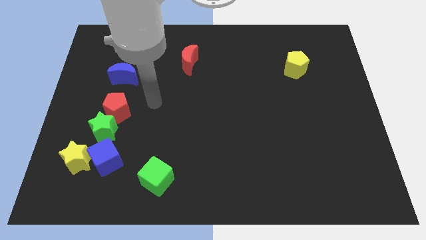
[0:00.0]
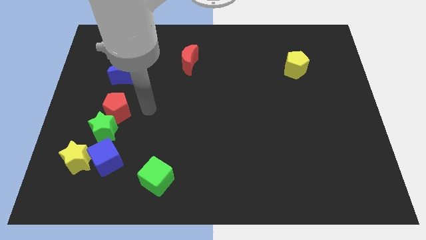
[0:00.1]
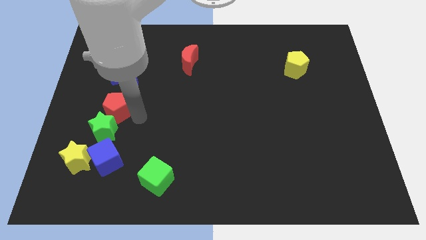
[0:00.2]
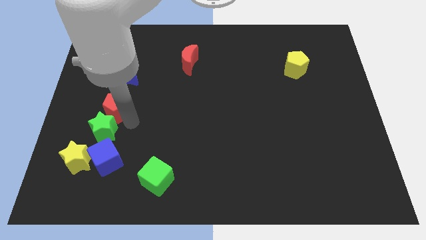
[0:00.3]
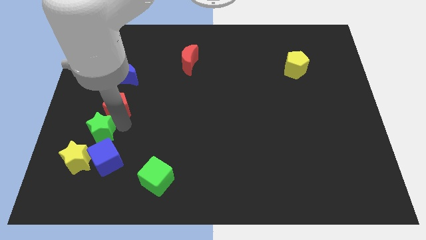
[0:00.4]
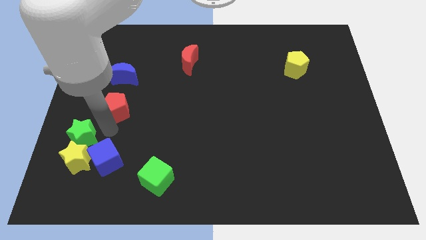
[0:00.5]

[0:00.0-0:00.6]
separate the red pentagon from the green star

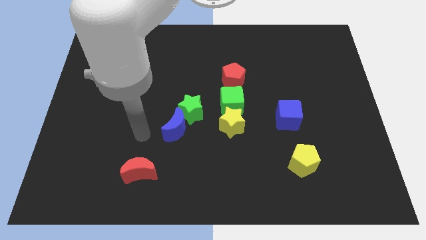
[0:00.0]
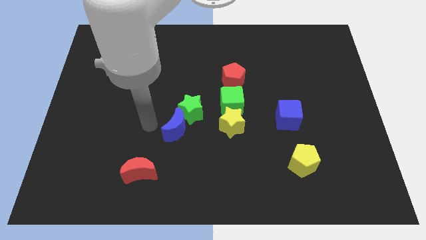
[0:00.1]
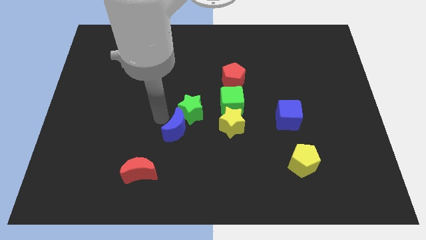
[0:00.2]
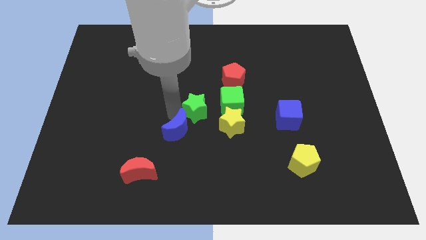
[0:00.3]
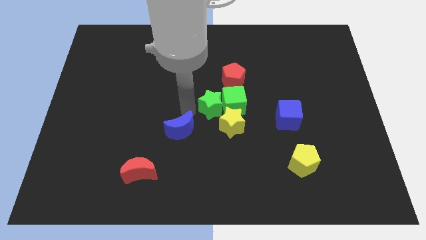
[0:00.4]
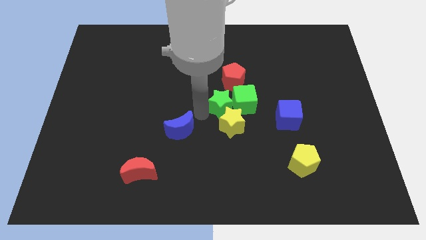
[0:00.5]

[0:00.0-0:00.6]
separate the blue moon from the green star

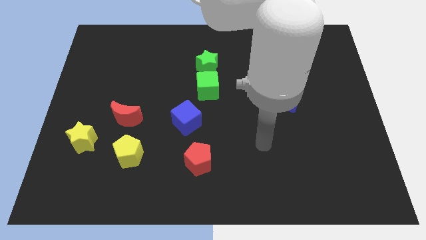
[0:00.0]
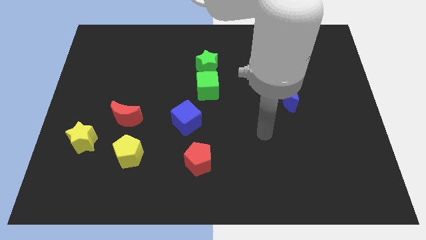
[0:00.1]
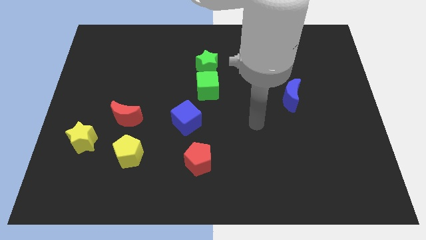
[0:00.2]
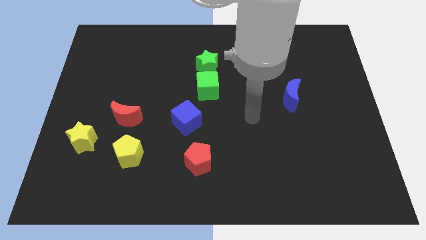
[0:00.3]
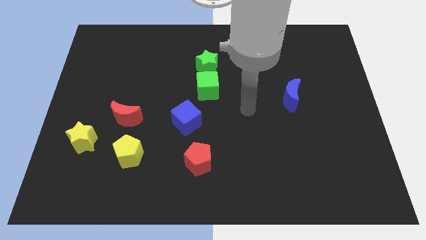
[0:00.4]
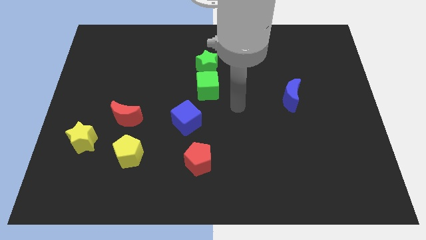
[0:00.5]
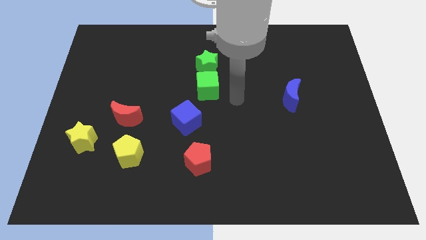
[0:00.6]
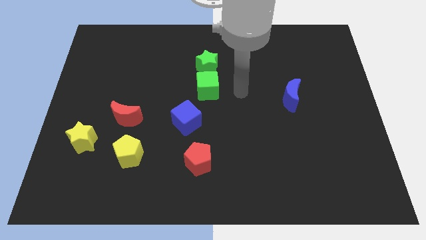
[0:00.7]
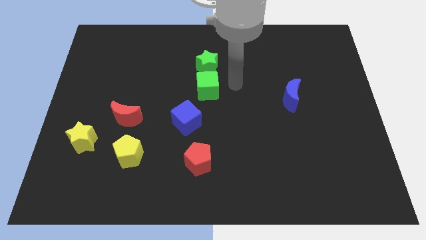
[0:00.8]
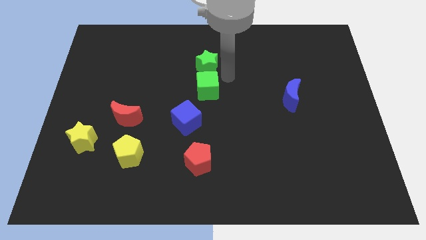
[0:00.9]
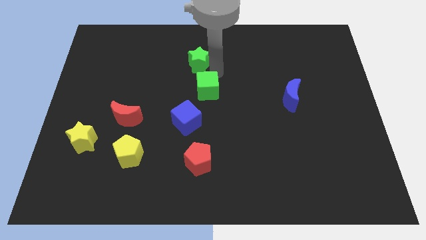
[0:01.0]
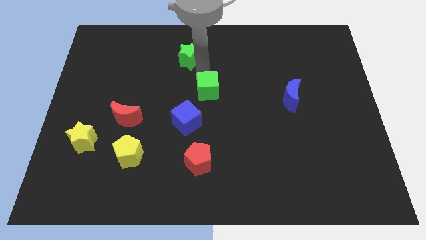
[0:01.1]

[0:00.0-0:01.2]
pull the green cube apart from the green star

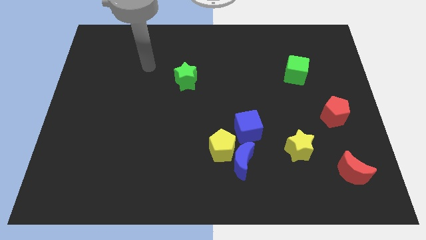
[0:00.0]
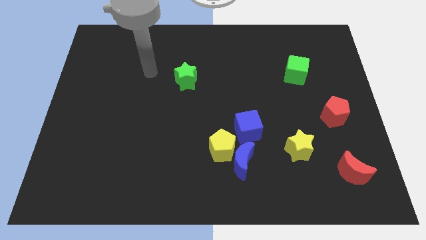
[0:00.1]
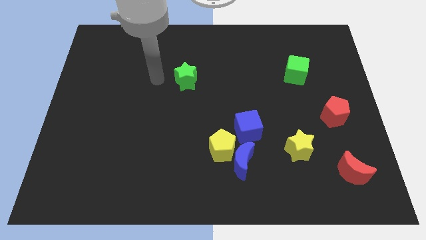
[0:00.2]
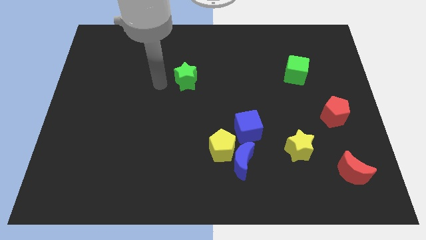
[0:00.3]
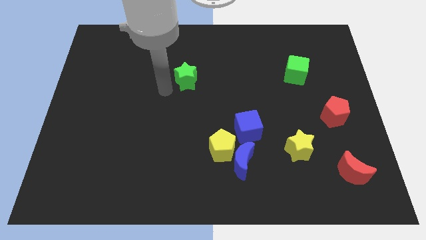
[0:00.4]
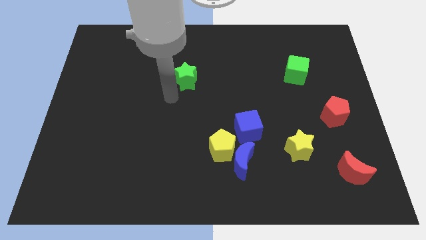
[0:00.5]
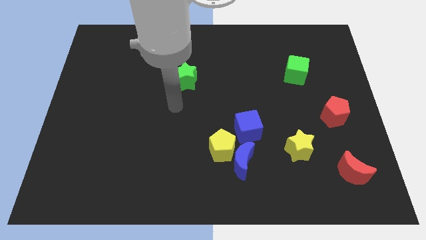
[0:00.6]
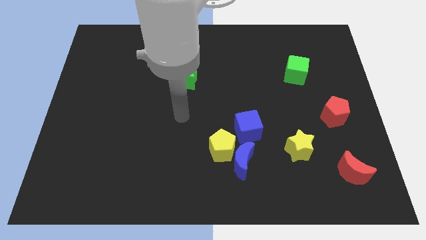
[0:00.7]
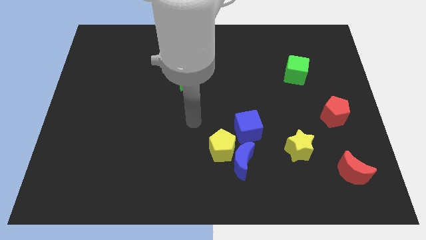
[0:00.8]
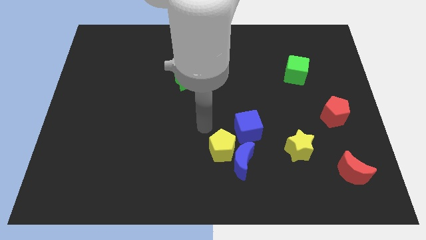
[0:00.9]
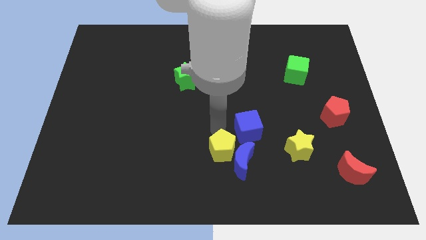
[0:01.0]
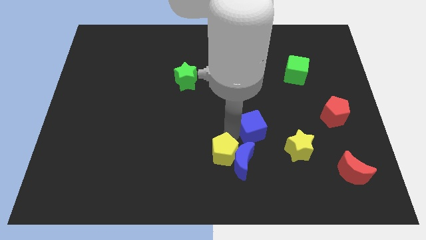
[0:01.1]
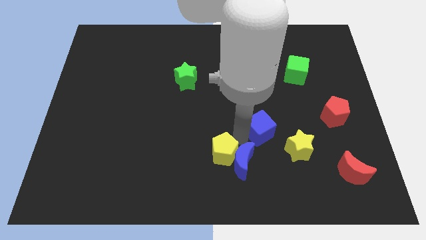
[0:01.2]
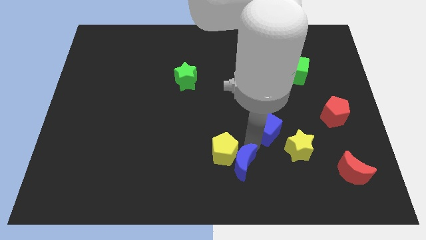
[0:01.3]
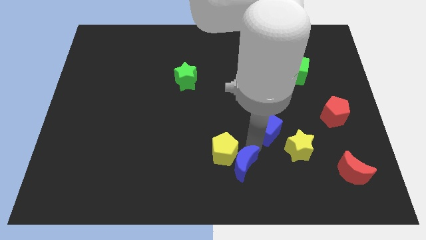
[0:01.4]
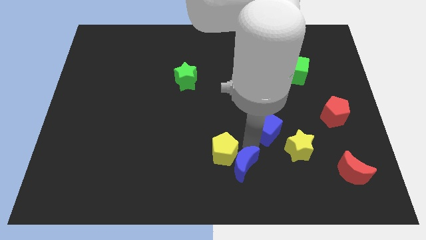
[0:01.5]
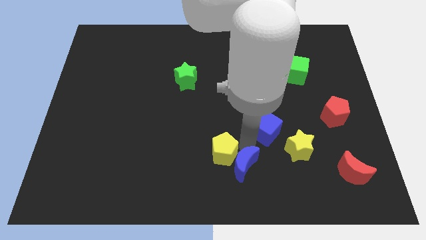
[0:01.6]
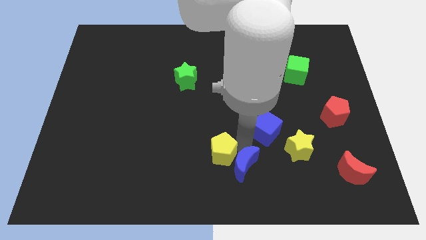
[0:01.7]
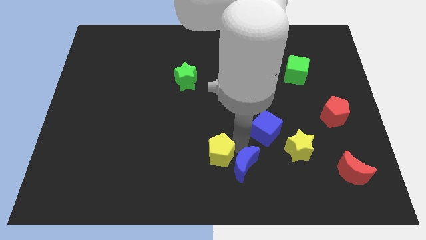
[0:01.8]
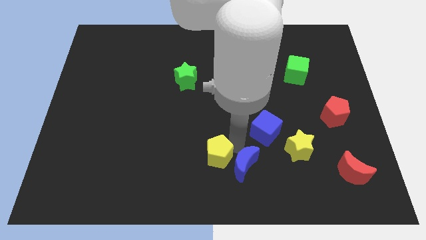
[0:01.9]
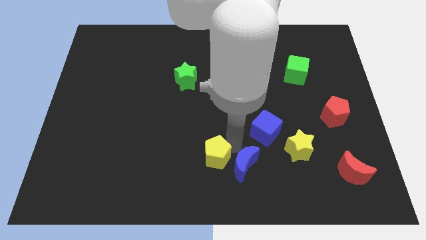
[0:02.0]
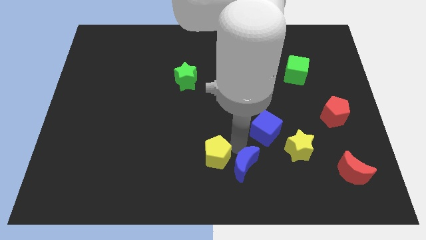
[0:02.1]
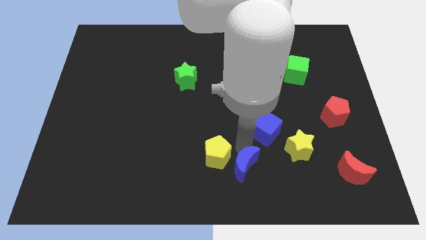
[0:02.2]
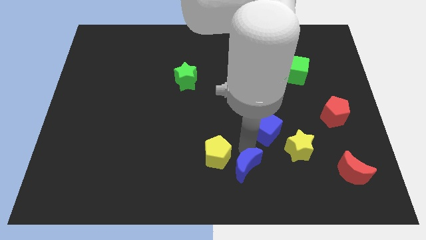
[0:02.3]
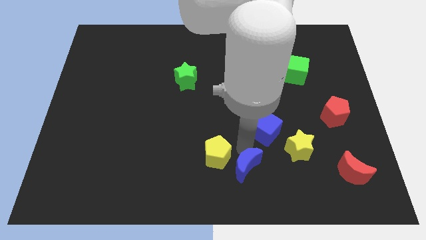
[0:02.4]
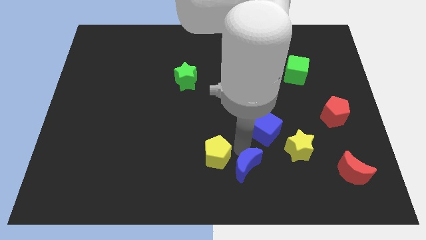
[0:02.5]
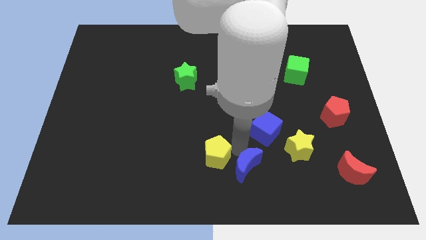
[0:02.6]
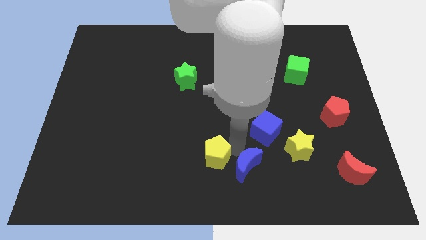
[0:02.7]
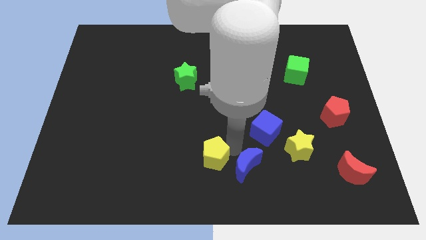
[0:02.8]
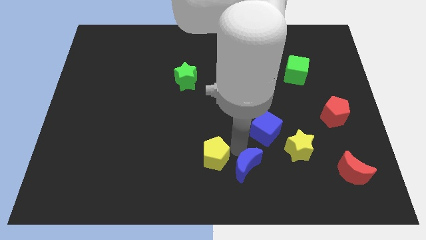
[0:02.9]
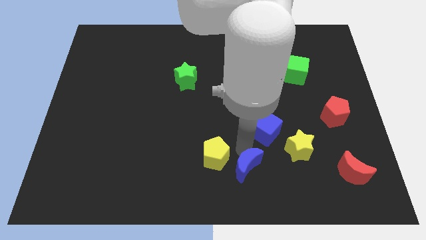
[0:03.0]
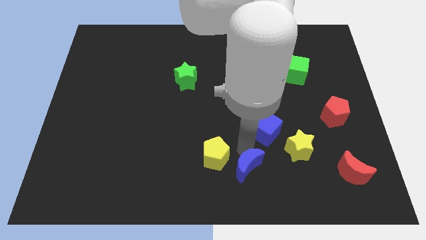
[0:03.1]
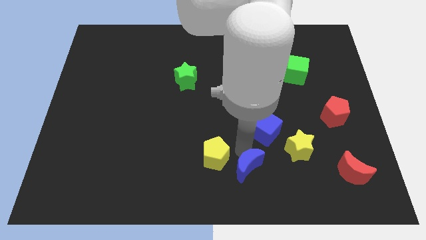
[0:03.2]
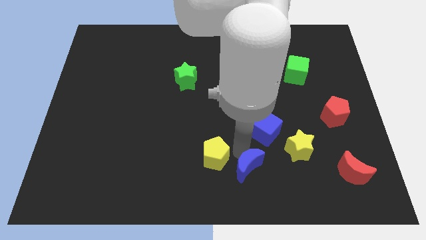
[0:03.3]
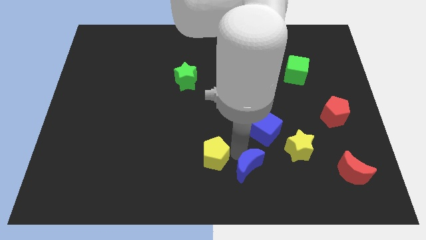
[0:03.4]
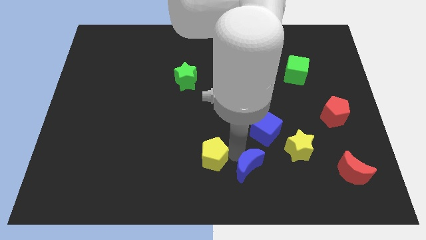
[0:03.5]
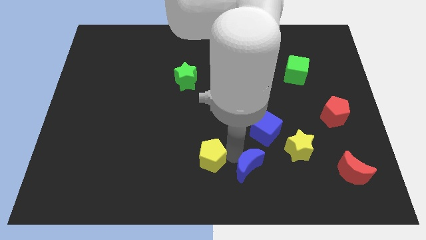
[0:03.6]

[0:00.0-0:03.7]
separate the yellow pentagon from the blue moon and blue cube

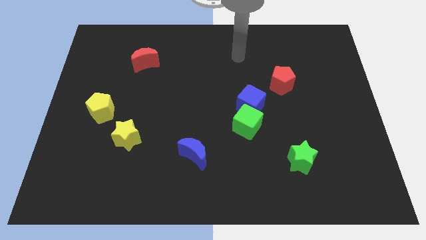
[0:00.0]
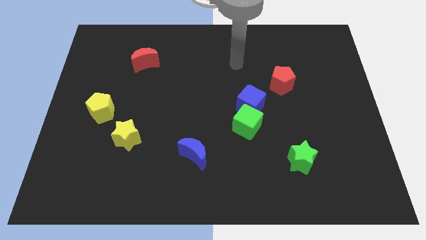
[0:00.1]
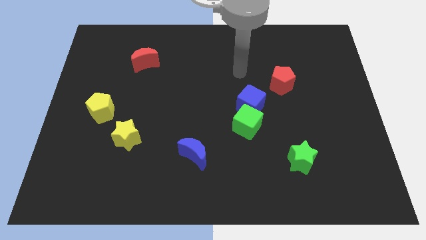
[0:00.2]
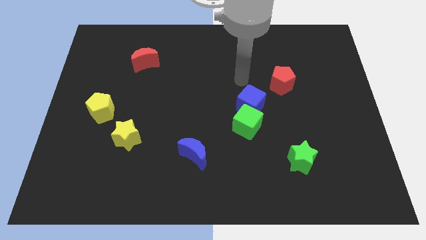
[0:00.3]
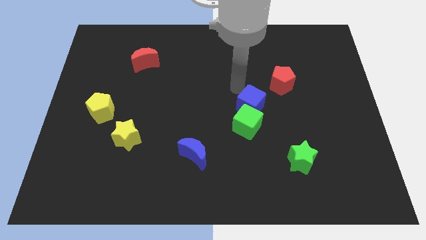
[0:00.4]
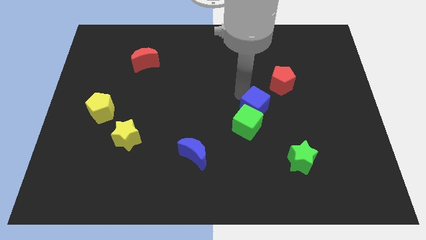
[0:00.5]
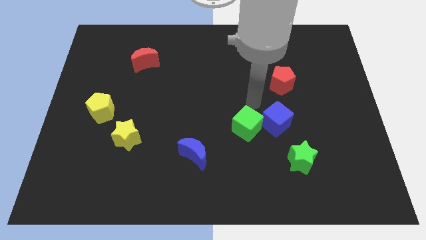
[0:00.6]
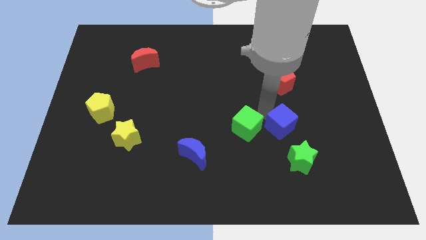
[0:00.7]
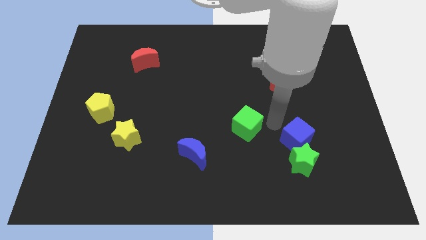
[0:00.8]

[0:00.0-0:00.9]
pull the green cube apart from the blue cube

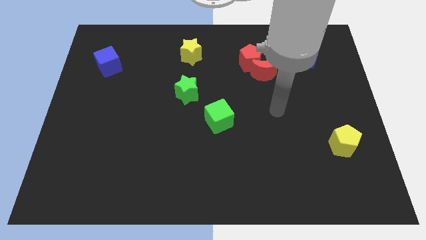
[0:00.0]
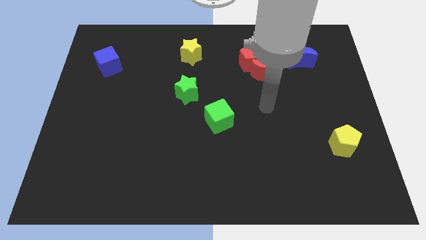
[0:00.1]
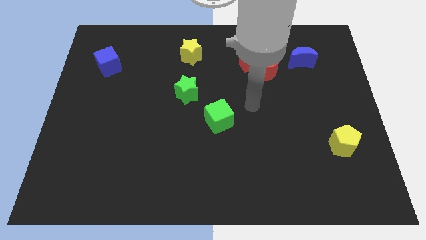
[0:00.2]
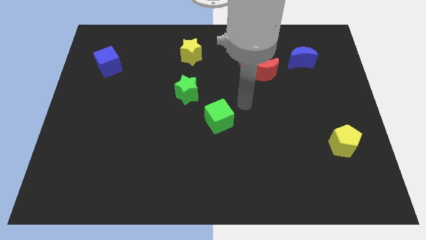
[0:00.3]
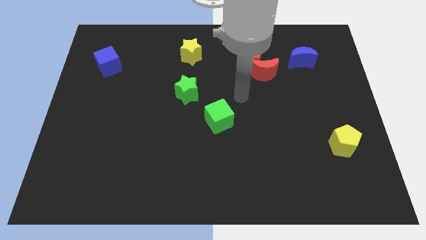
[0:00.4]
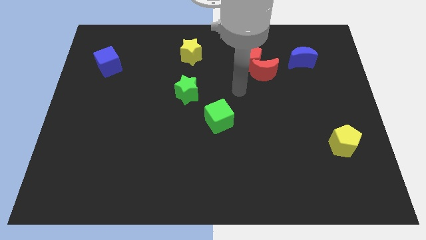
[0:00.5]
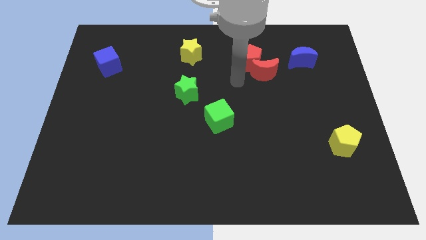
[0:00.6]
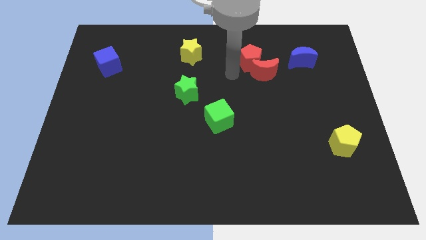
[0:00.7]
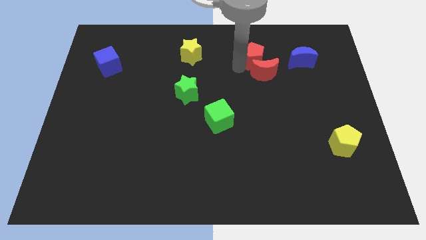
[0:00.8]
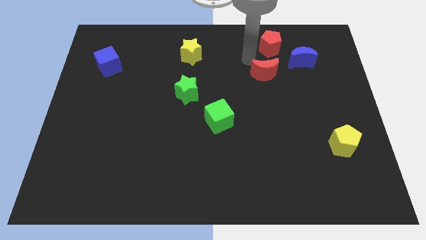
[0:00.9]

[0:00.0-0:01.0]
move the red moon away from the red pentagon

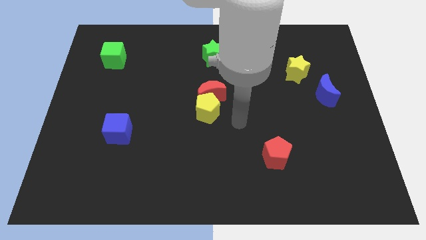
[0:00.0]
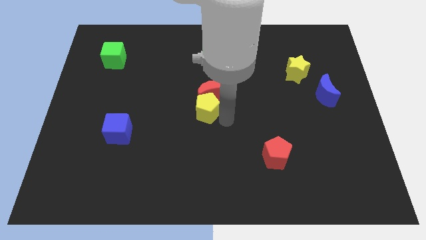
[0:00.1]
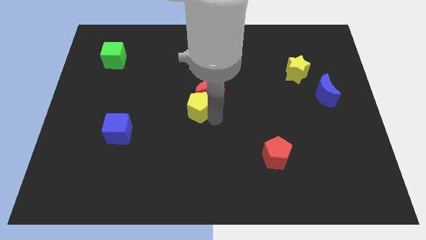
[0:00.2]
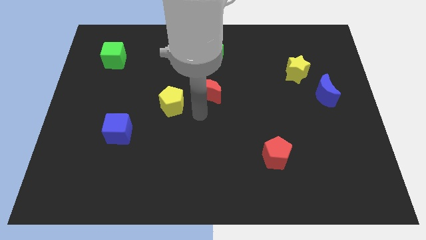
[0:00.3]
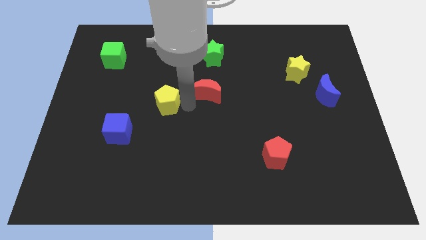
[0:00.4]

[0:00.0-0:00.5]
pull the red moon apart from the yellow pentagon

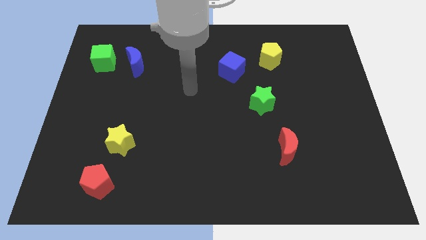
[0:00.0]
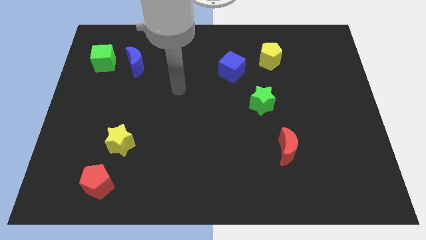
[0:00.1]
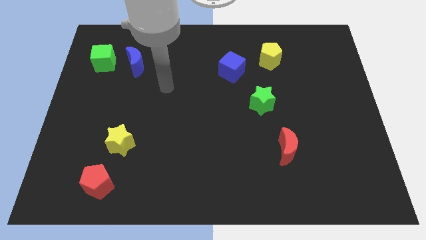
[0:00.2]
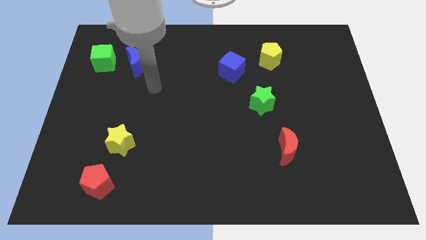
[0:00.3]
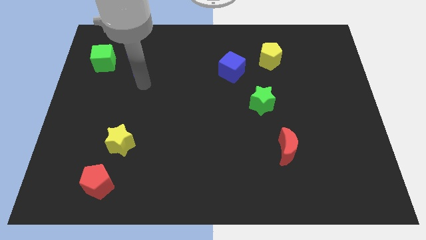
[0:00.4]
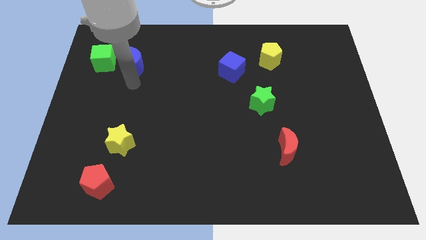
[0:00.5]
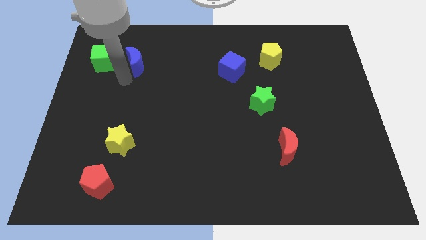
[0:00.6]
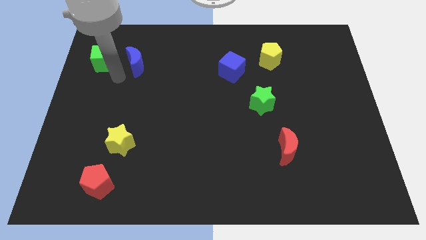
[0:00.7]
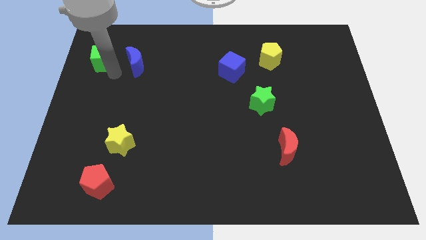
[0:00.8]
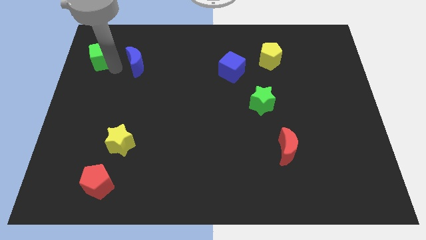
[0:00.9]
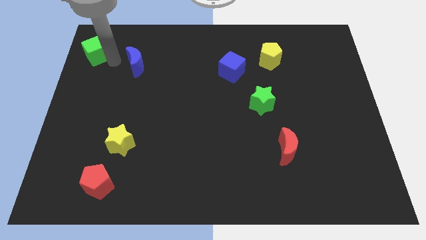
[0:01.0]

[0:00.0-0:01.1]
pull the blue moon apart from the green cube
